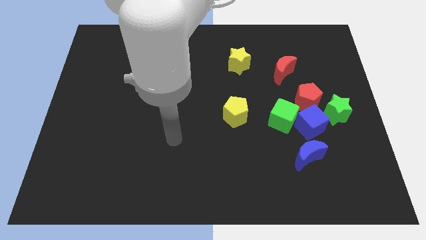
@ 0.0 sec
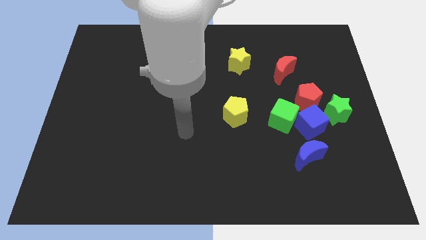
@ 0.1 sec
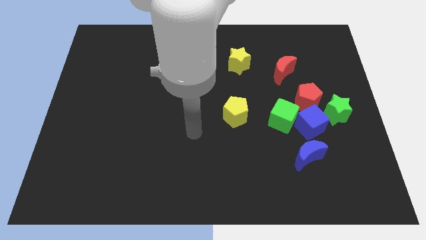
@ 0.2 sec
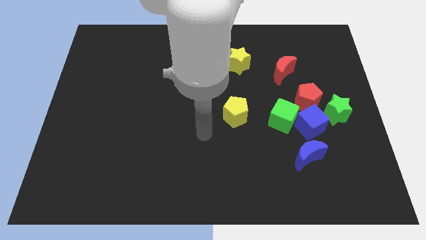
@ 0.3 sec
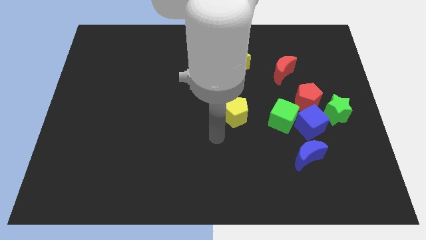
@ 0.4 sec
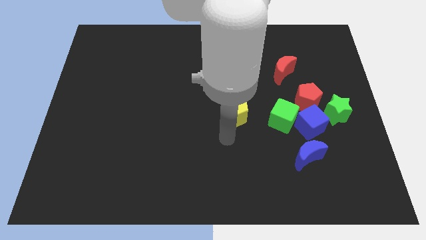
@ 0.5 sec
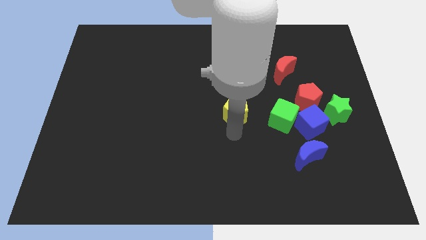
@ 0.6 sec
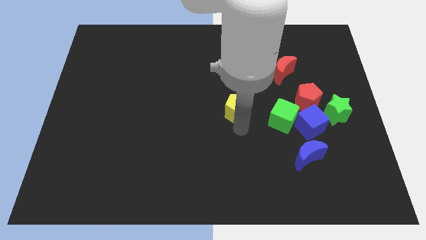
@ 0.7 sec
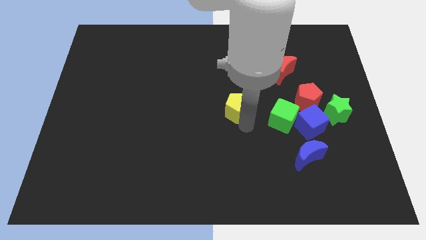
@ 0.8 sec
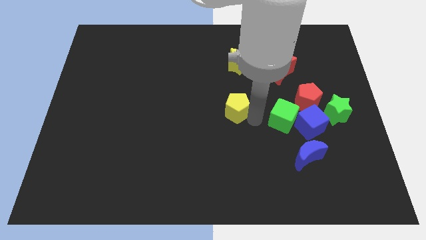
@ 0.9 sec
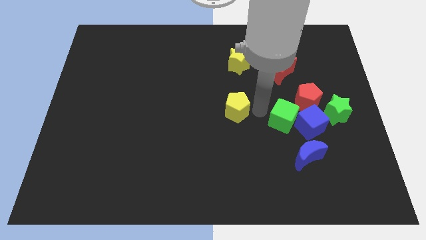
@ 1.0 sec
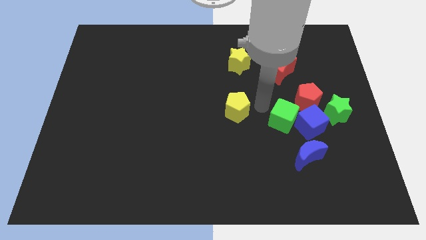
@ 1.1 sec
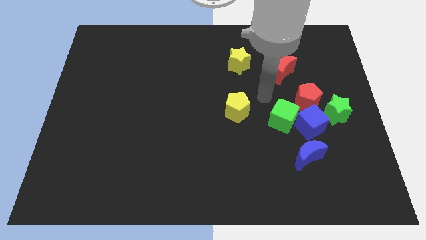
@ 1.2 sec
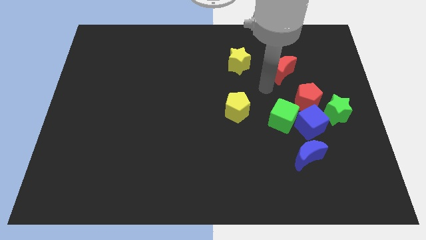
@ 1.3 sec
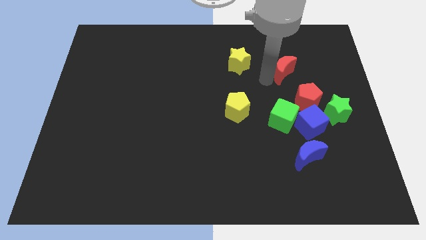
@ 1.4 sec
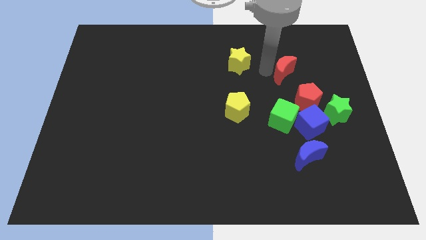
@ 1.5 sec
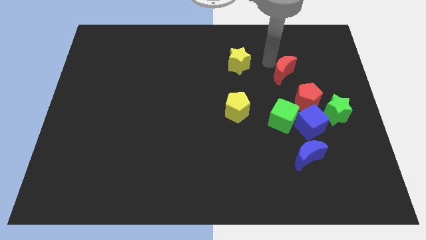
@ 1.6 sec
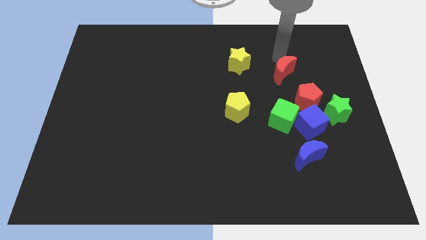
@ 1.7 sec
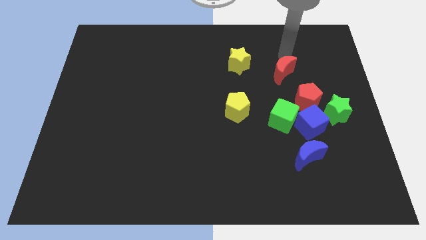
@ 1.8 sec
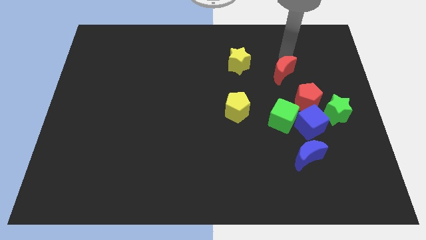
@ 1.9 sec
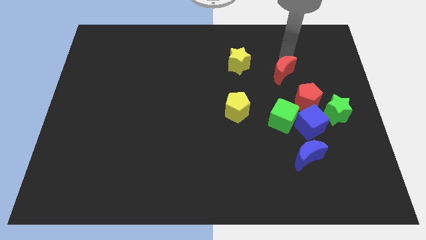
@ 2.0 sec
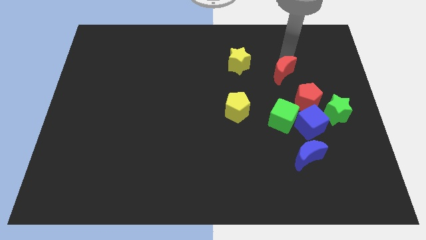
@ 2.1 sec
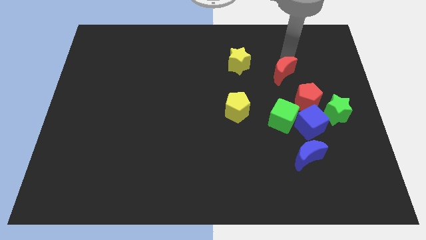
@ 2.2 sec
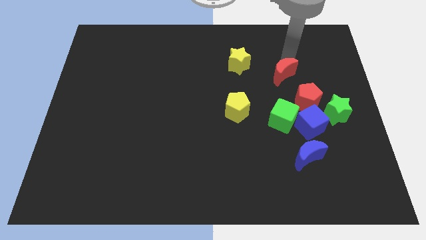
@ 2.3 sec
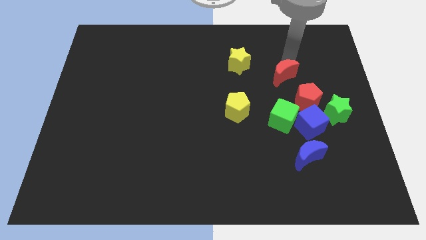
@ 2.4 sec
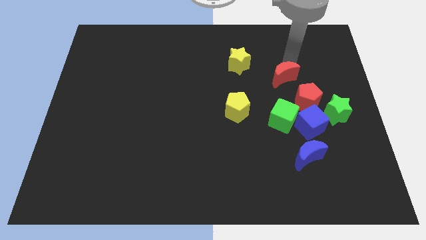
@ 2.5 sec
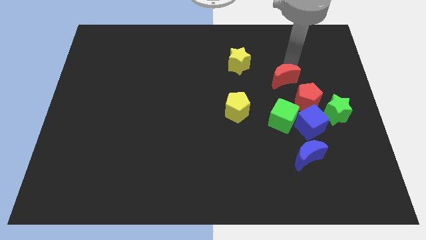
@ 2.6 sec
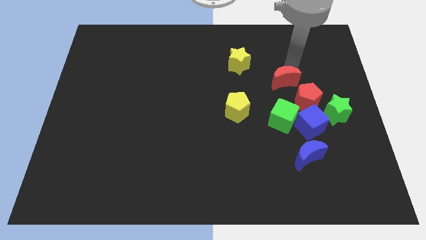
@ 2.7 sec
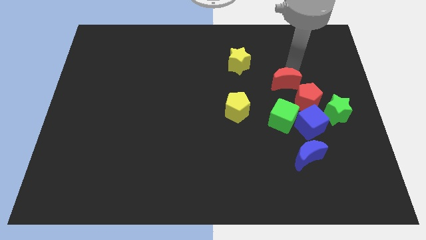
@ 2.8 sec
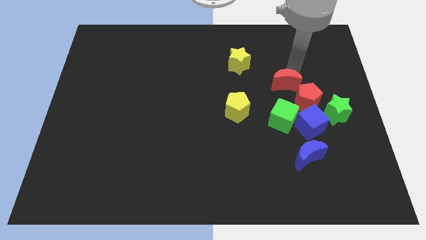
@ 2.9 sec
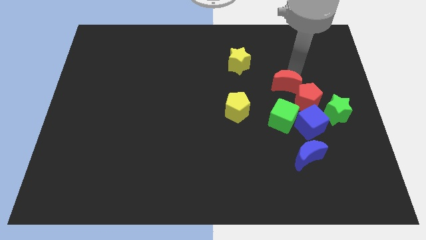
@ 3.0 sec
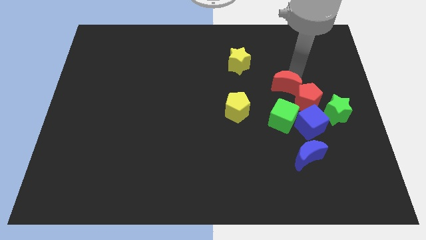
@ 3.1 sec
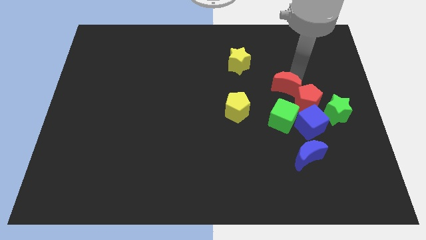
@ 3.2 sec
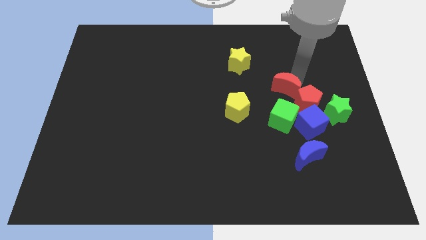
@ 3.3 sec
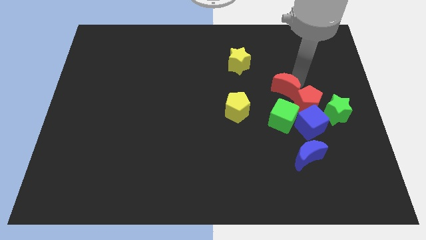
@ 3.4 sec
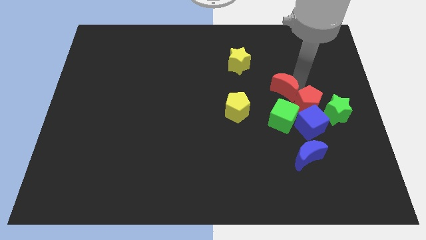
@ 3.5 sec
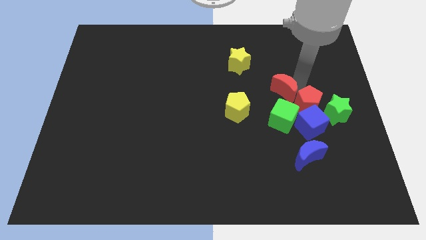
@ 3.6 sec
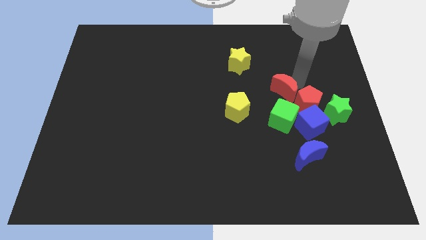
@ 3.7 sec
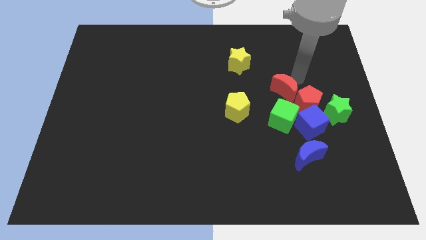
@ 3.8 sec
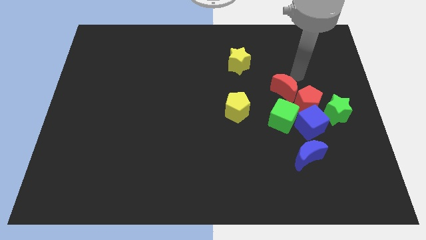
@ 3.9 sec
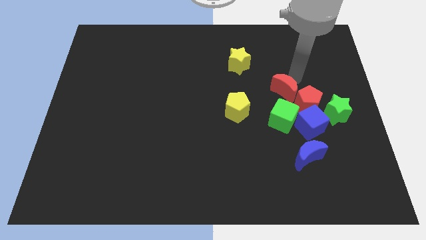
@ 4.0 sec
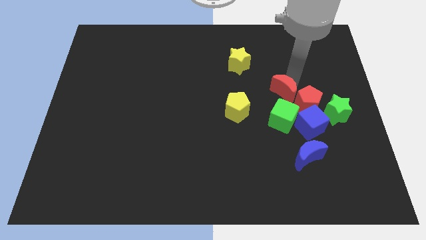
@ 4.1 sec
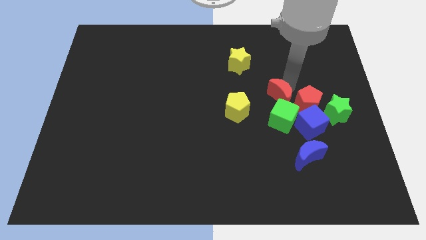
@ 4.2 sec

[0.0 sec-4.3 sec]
push the red moon downwards a little bit

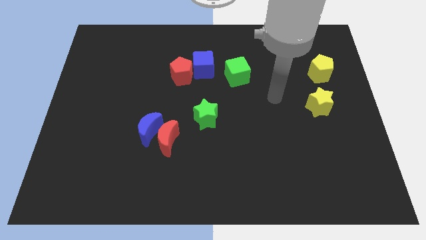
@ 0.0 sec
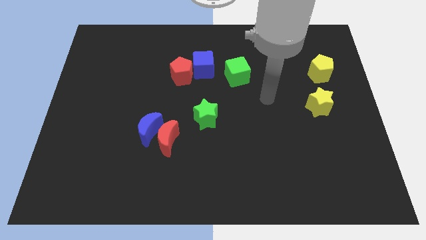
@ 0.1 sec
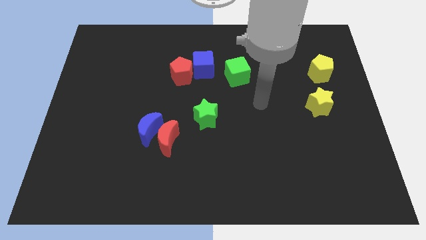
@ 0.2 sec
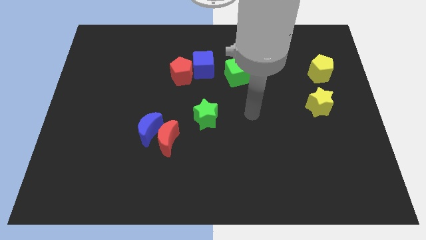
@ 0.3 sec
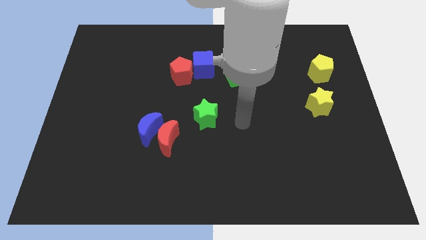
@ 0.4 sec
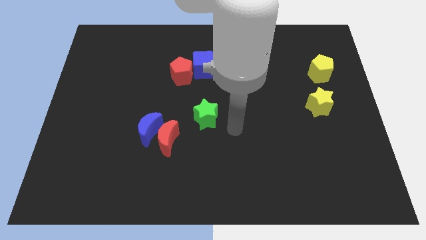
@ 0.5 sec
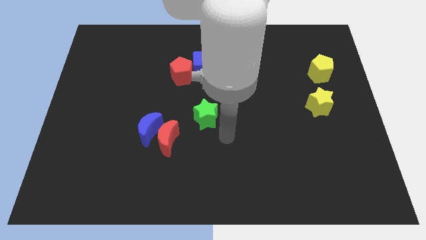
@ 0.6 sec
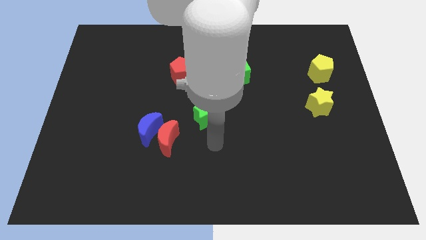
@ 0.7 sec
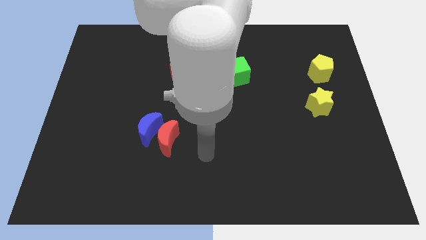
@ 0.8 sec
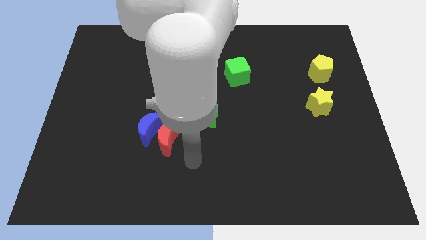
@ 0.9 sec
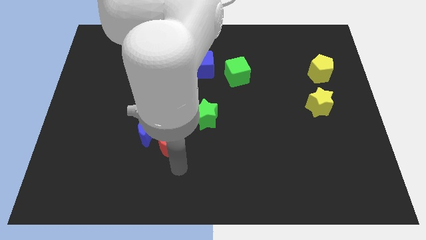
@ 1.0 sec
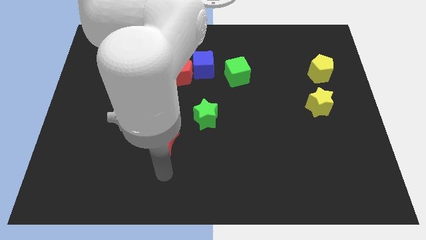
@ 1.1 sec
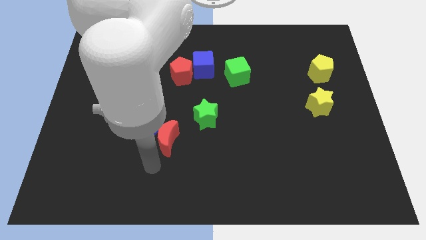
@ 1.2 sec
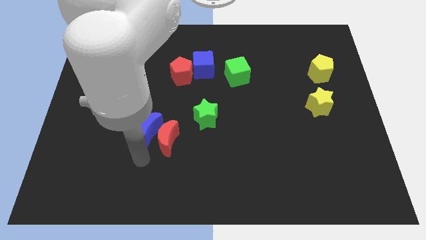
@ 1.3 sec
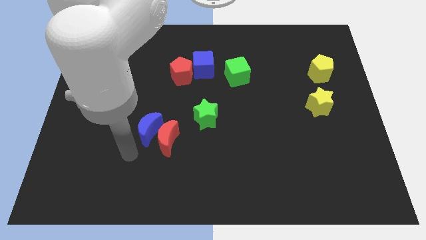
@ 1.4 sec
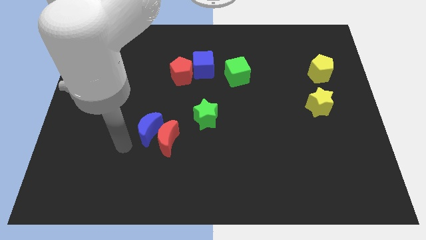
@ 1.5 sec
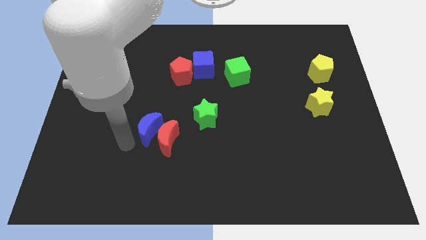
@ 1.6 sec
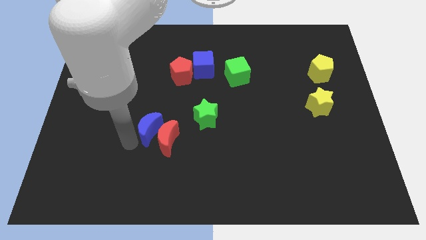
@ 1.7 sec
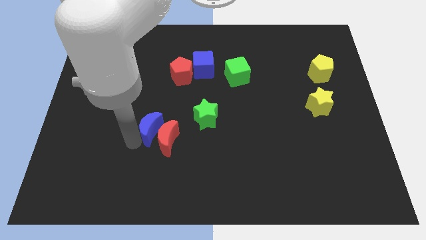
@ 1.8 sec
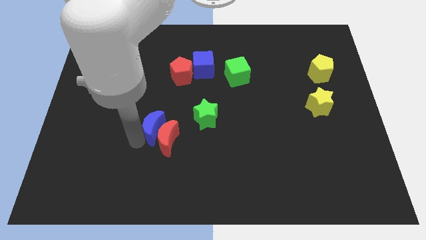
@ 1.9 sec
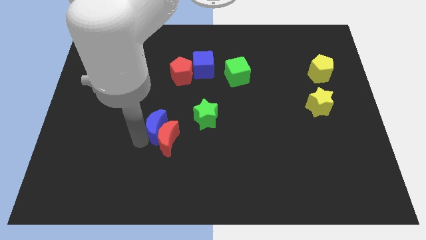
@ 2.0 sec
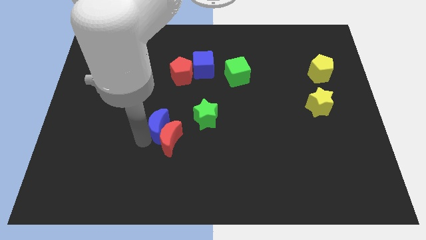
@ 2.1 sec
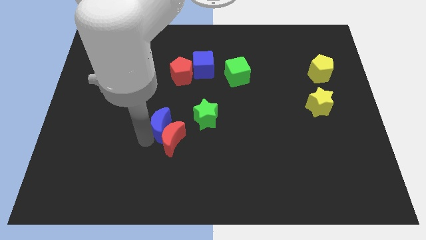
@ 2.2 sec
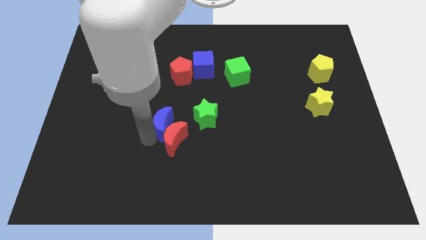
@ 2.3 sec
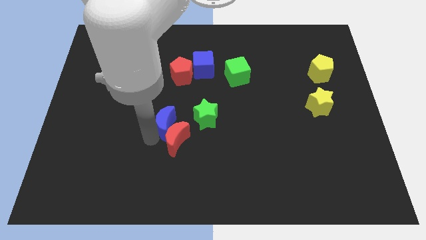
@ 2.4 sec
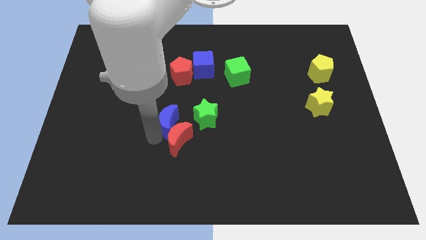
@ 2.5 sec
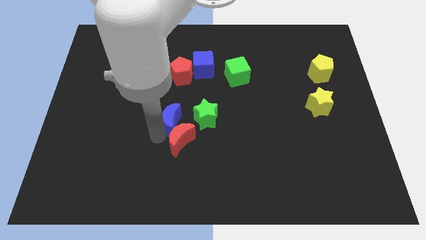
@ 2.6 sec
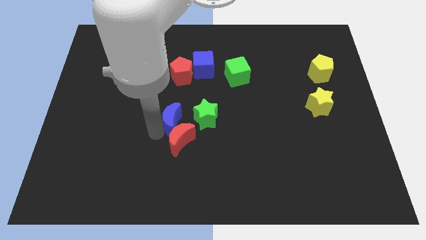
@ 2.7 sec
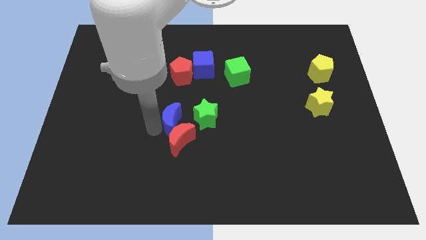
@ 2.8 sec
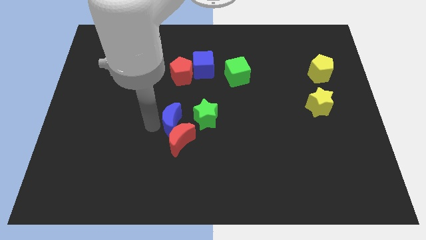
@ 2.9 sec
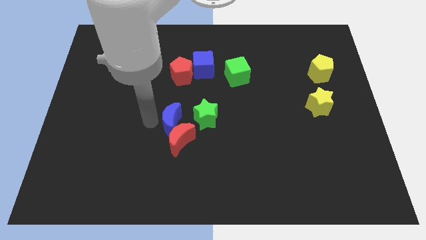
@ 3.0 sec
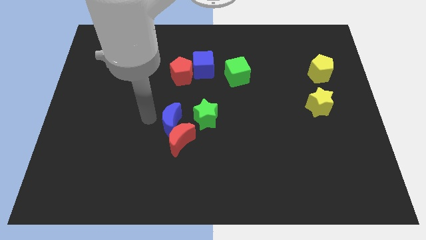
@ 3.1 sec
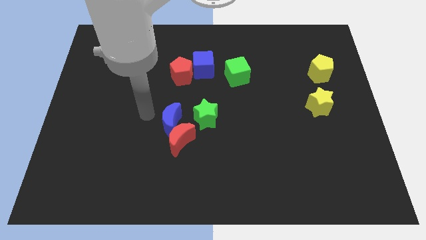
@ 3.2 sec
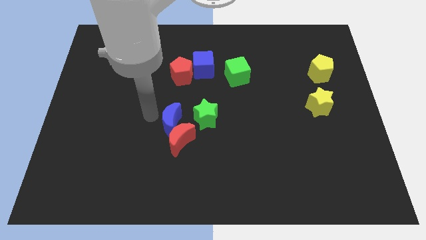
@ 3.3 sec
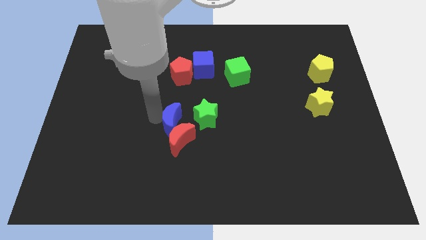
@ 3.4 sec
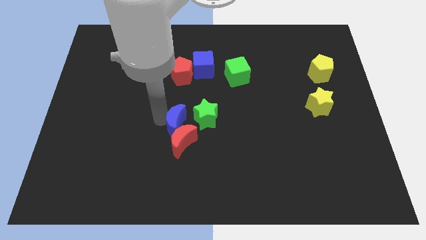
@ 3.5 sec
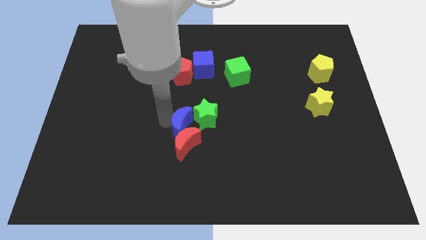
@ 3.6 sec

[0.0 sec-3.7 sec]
move the blue moon right somewhat

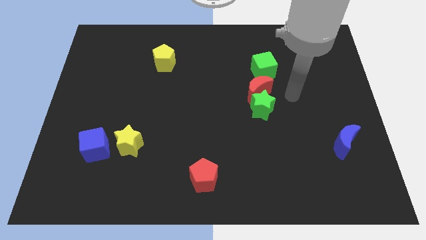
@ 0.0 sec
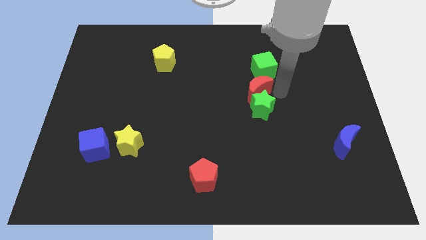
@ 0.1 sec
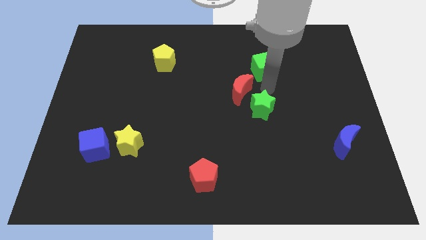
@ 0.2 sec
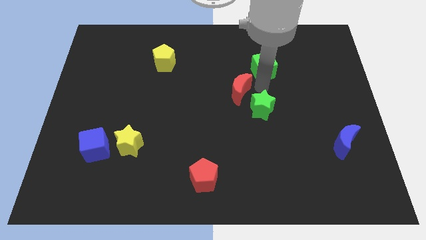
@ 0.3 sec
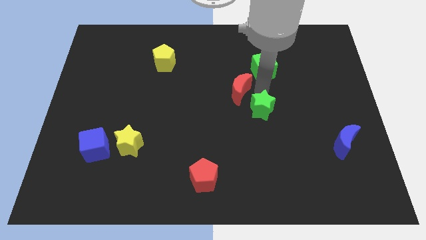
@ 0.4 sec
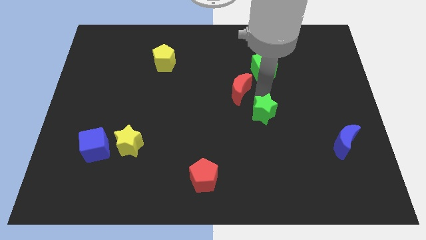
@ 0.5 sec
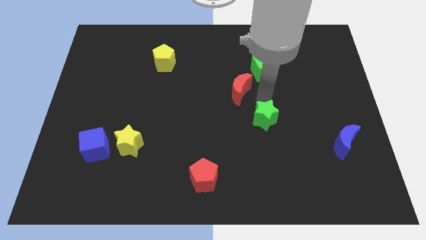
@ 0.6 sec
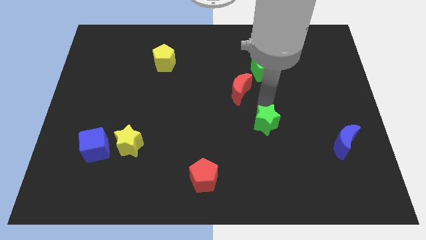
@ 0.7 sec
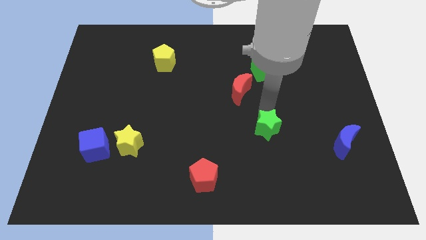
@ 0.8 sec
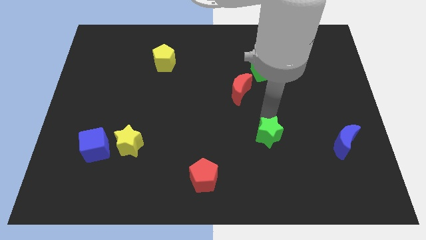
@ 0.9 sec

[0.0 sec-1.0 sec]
slightly move the green star downwards
